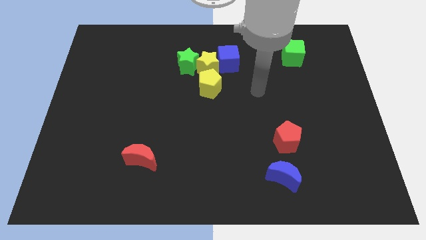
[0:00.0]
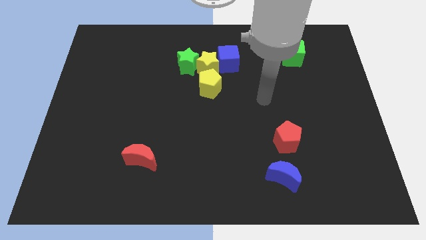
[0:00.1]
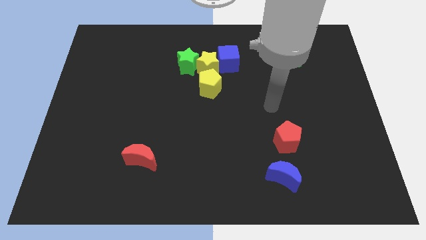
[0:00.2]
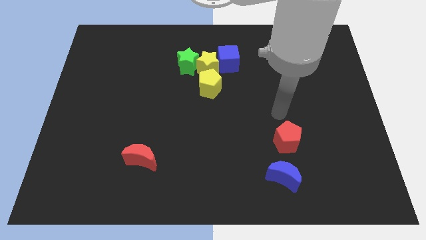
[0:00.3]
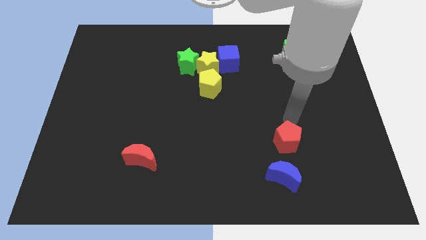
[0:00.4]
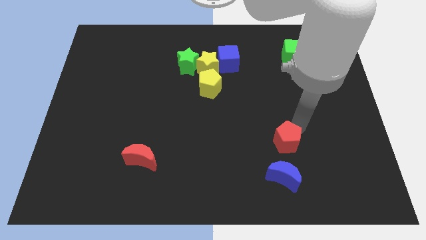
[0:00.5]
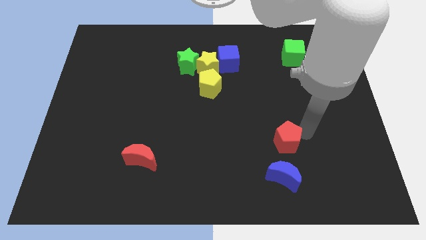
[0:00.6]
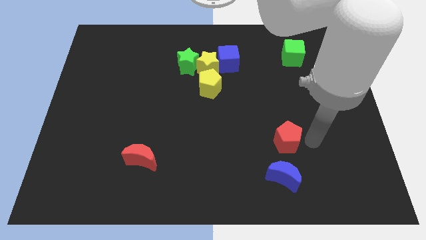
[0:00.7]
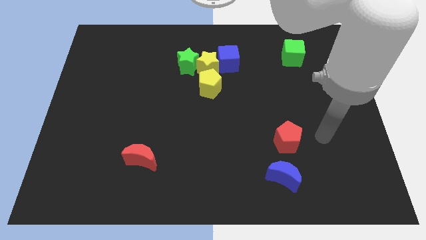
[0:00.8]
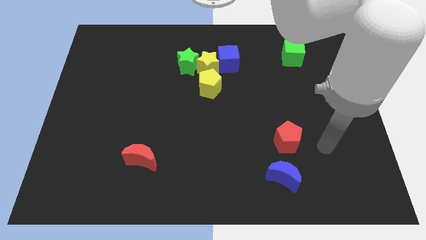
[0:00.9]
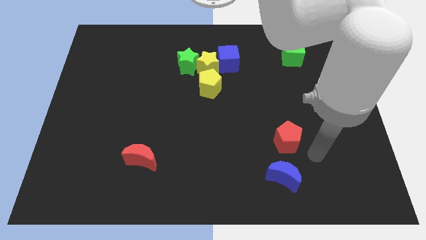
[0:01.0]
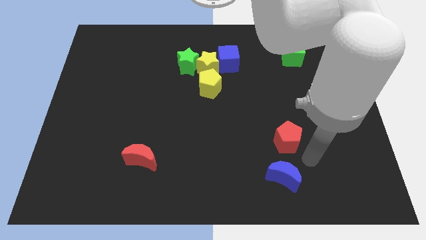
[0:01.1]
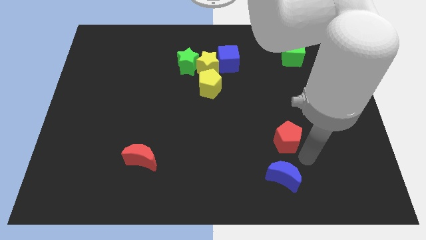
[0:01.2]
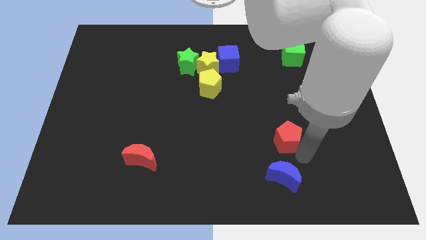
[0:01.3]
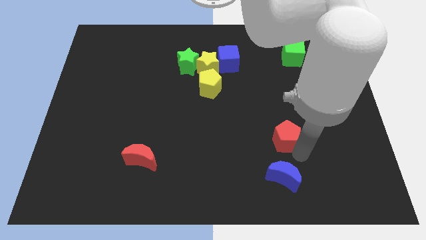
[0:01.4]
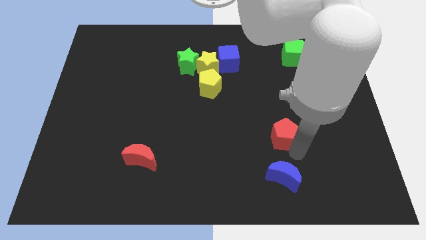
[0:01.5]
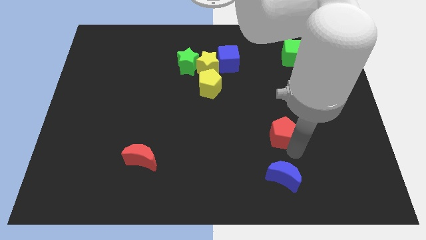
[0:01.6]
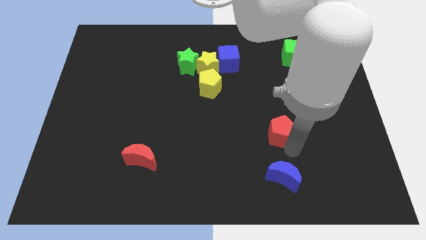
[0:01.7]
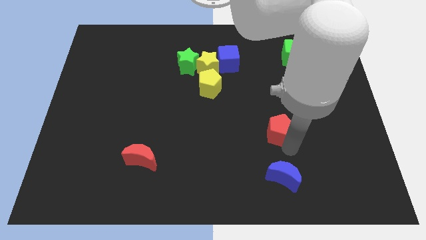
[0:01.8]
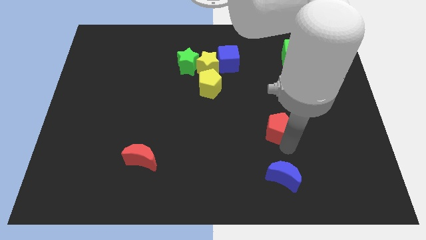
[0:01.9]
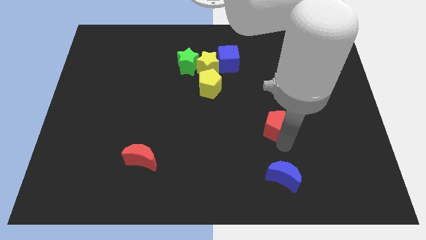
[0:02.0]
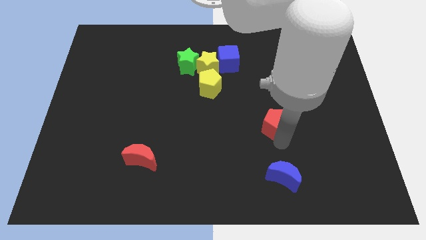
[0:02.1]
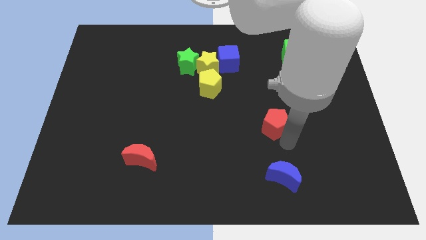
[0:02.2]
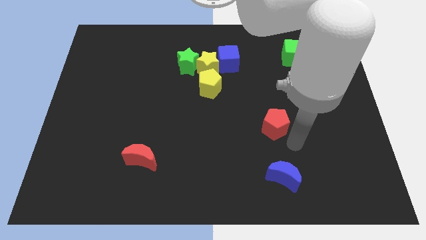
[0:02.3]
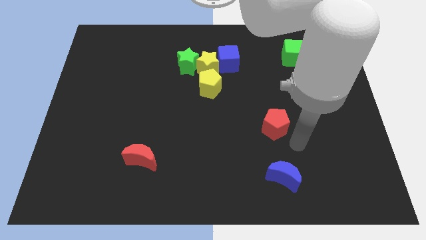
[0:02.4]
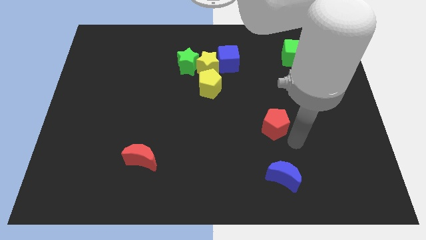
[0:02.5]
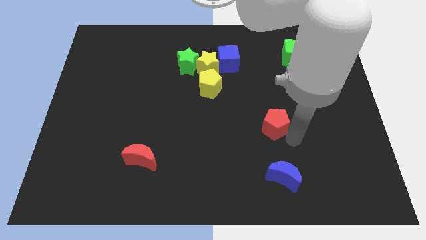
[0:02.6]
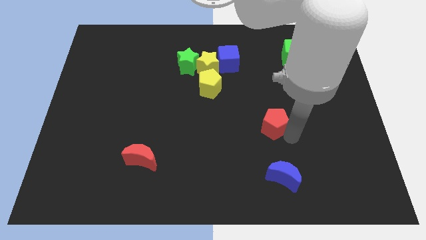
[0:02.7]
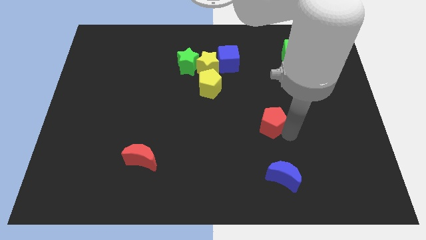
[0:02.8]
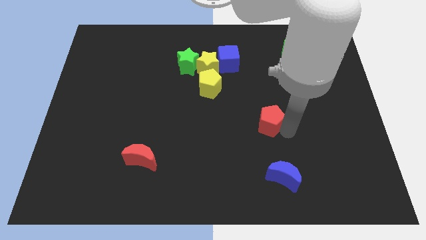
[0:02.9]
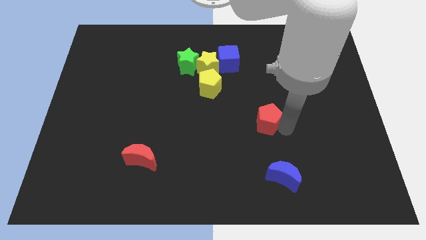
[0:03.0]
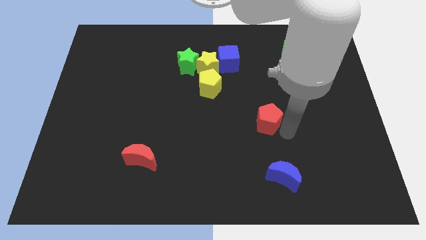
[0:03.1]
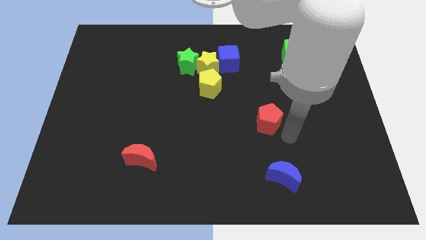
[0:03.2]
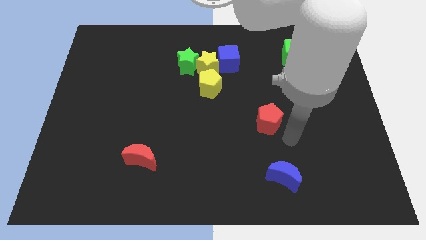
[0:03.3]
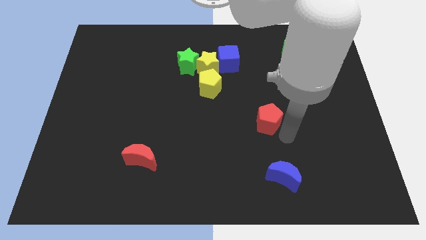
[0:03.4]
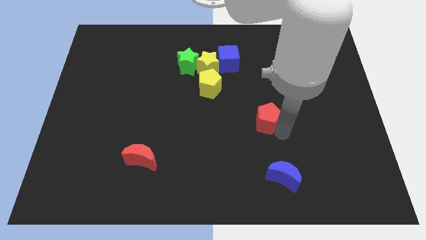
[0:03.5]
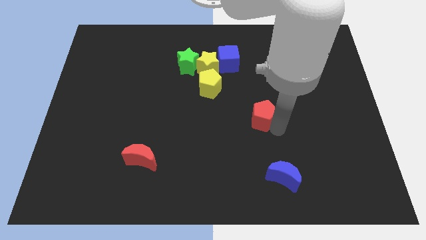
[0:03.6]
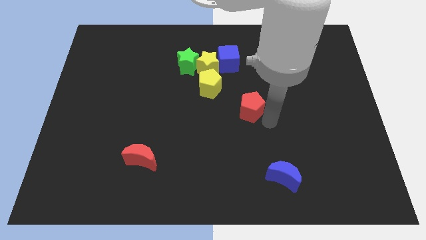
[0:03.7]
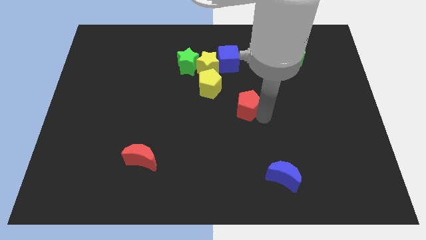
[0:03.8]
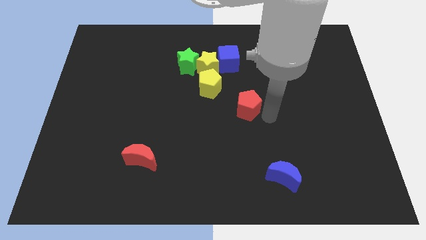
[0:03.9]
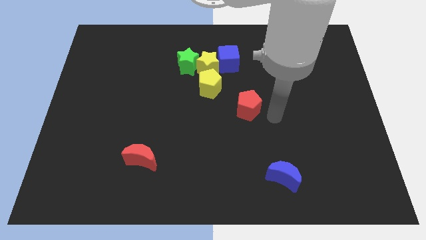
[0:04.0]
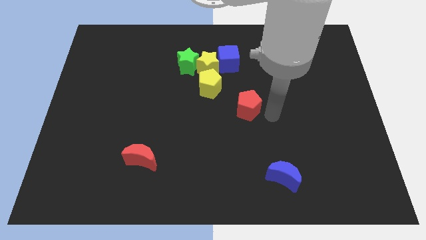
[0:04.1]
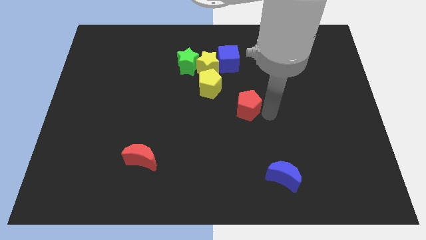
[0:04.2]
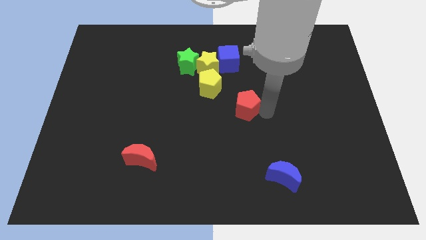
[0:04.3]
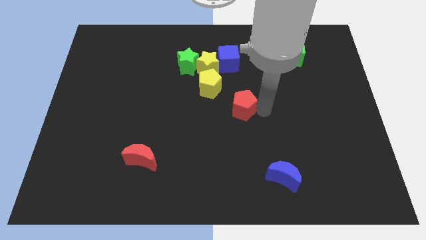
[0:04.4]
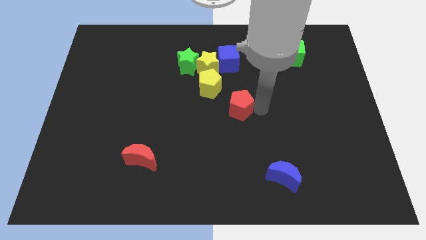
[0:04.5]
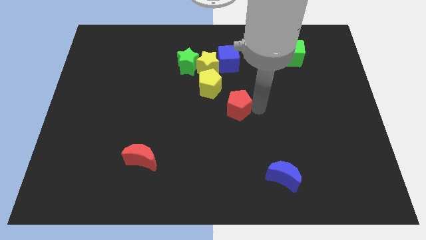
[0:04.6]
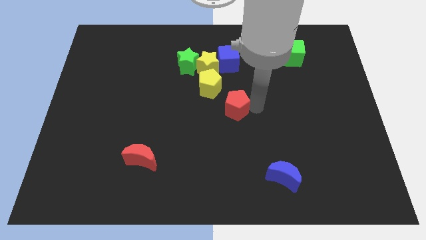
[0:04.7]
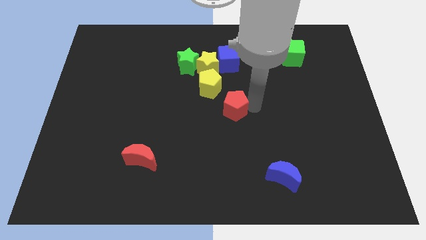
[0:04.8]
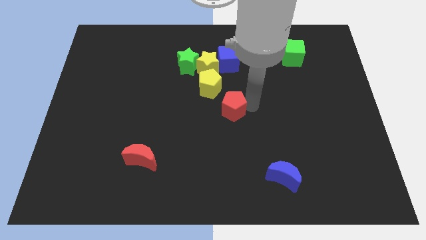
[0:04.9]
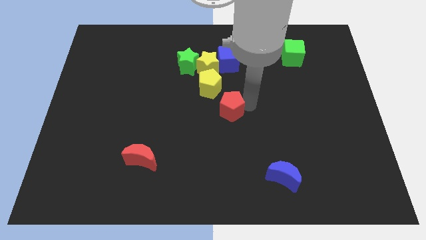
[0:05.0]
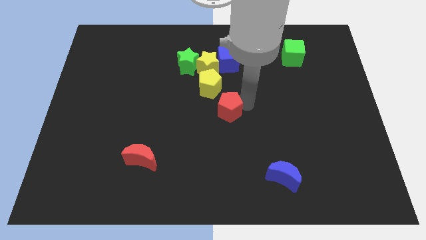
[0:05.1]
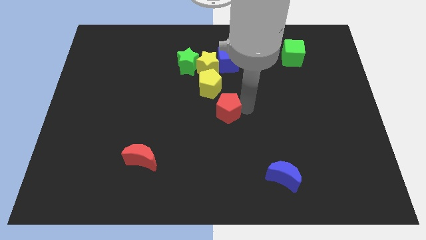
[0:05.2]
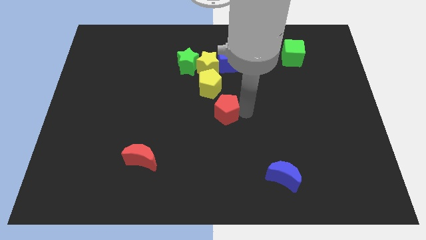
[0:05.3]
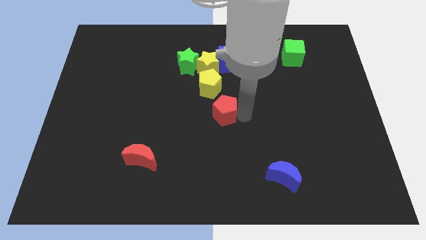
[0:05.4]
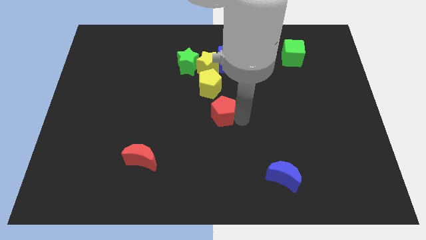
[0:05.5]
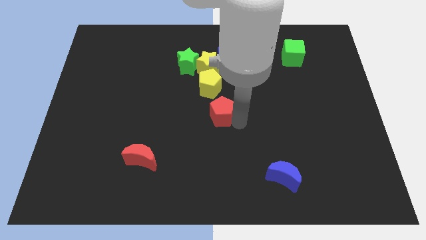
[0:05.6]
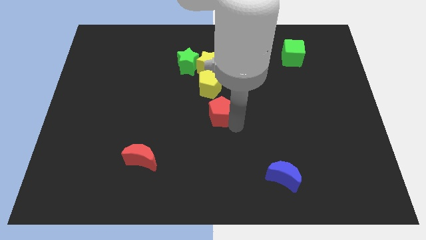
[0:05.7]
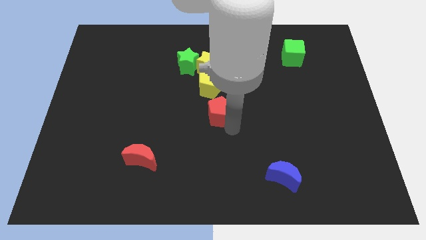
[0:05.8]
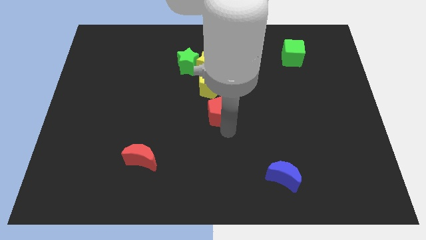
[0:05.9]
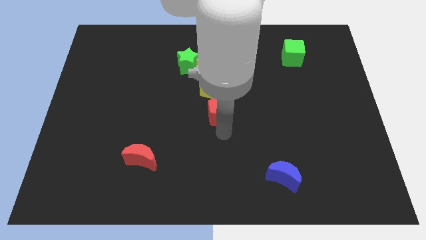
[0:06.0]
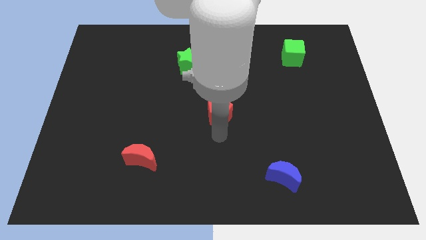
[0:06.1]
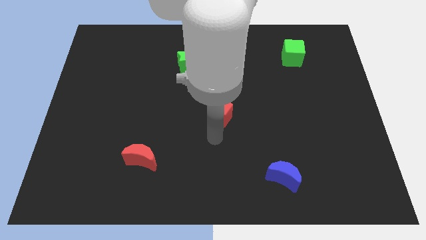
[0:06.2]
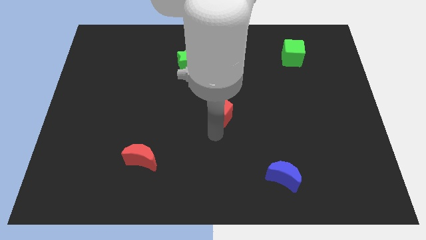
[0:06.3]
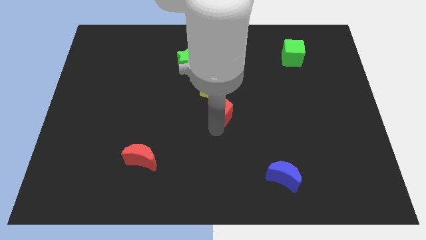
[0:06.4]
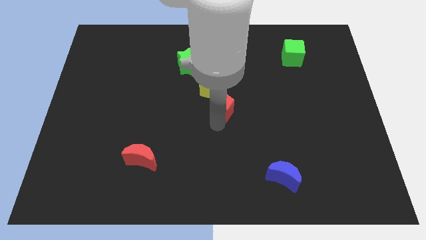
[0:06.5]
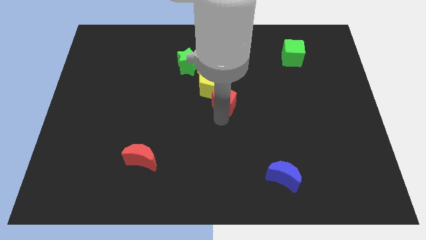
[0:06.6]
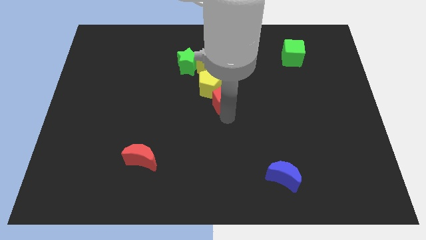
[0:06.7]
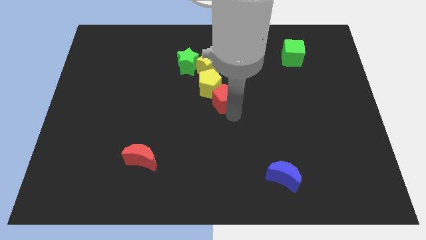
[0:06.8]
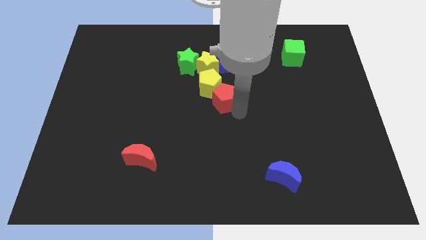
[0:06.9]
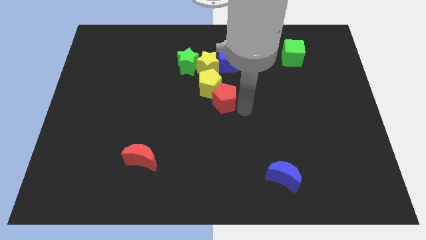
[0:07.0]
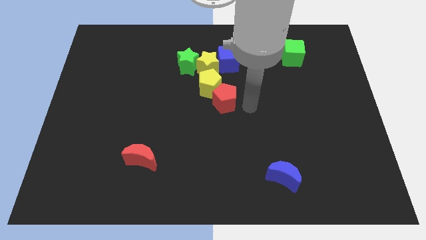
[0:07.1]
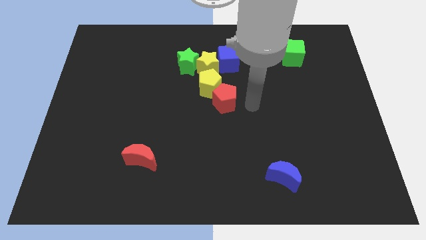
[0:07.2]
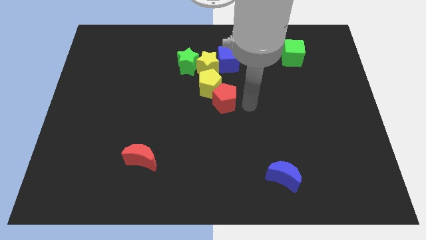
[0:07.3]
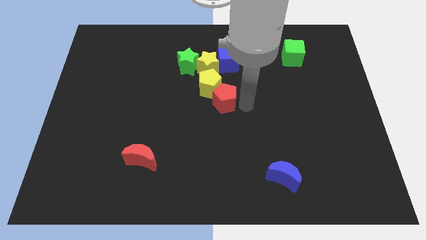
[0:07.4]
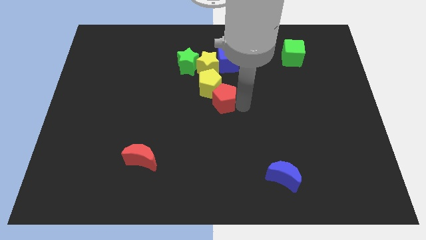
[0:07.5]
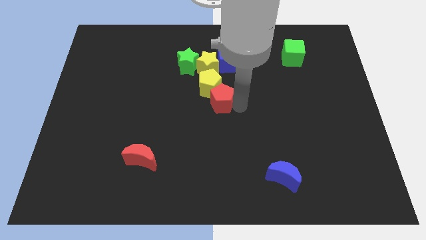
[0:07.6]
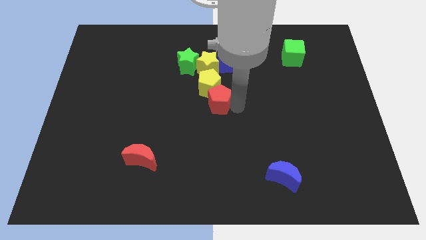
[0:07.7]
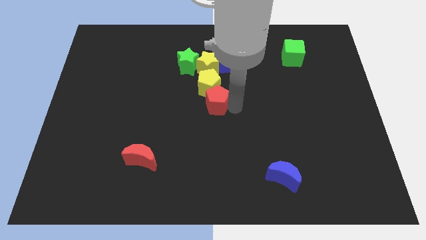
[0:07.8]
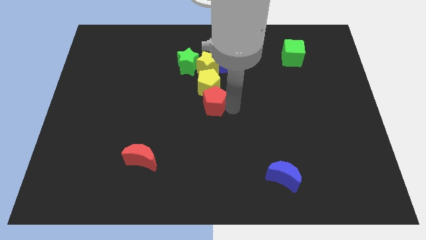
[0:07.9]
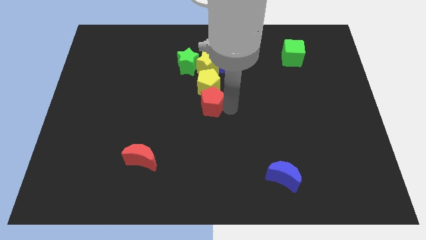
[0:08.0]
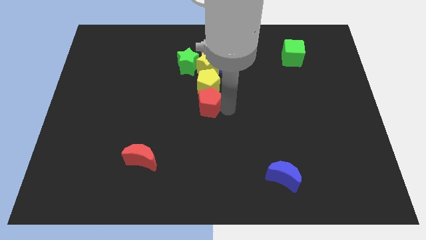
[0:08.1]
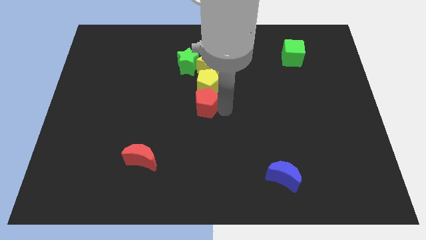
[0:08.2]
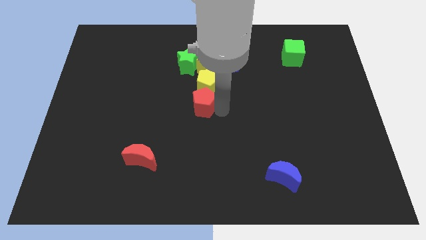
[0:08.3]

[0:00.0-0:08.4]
slide the red pentagon to the bottom side of the green star
